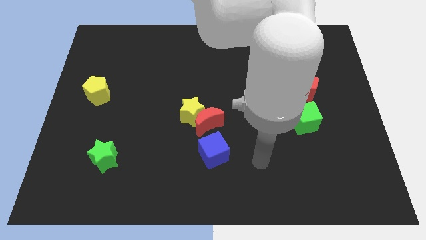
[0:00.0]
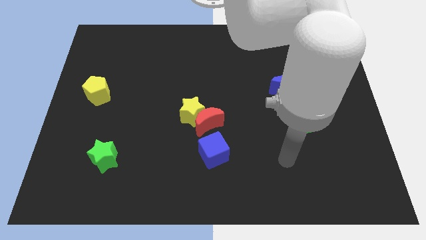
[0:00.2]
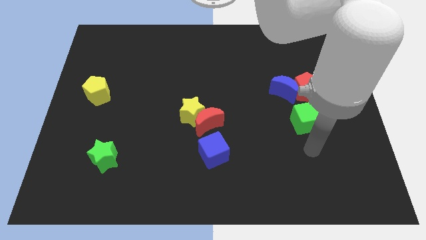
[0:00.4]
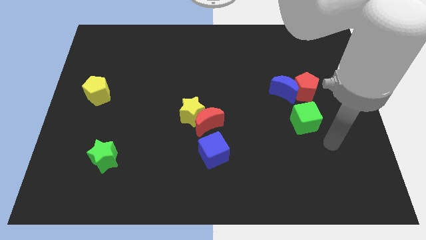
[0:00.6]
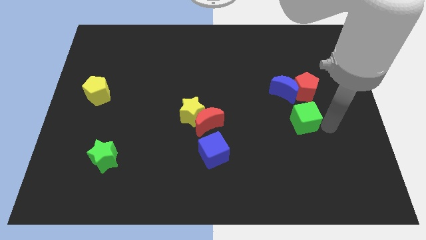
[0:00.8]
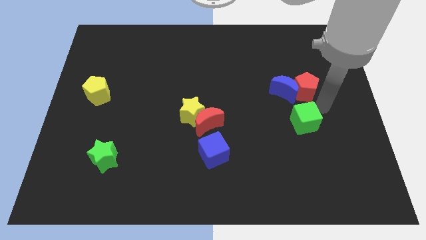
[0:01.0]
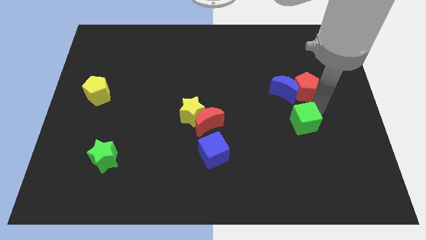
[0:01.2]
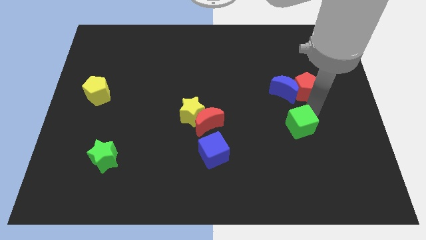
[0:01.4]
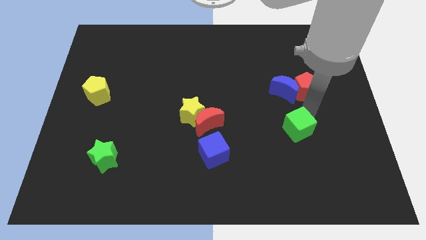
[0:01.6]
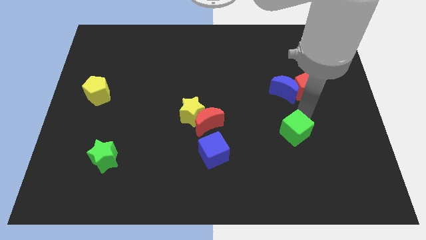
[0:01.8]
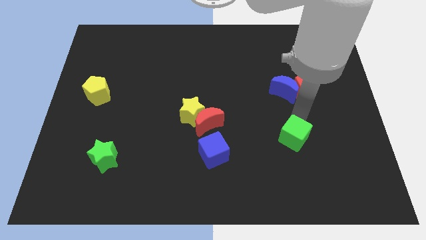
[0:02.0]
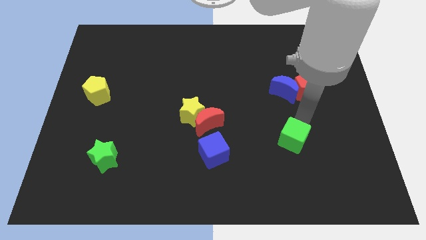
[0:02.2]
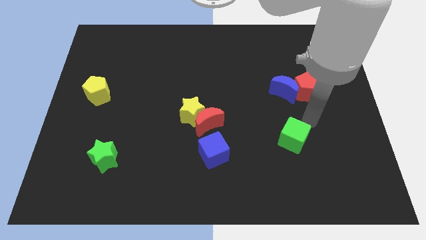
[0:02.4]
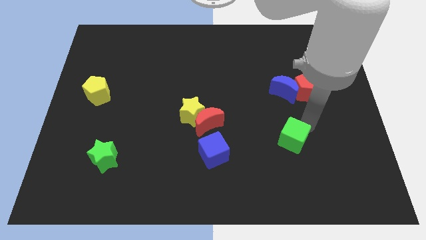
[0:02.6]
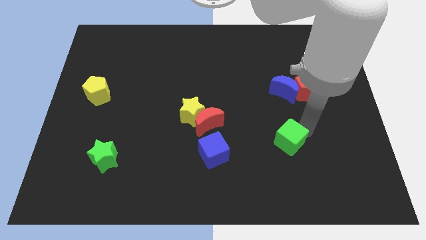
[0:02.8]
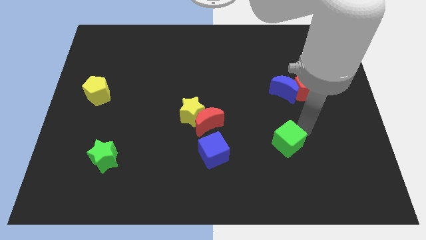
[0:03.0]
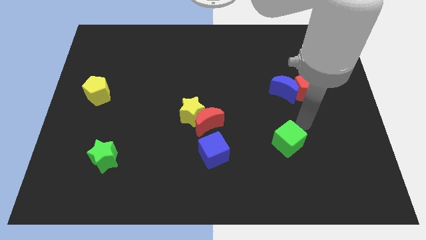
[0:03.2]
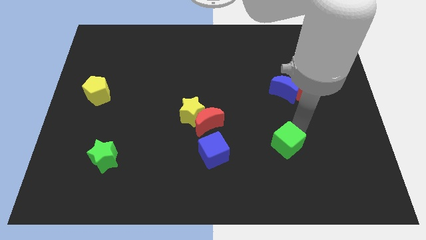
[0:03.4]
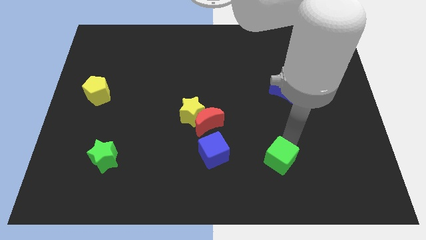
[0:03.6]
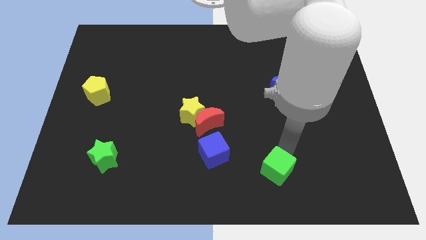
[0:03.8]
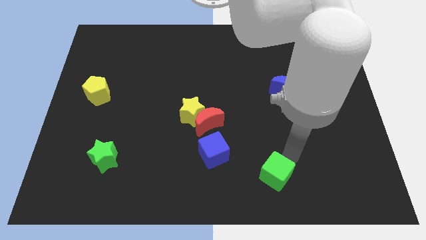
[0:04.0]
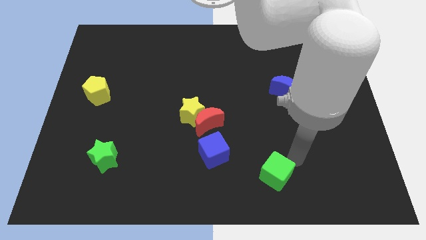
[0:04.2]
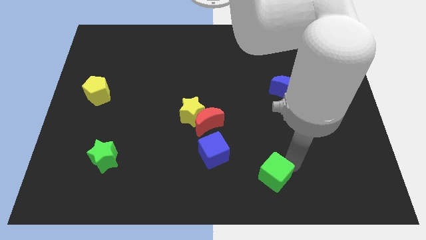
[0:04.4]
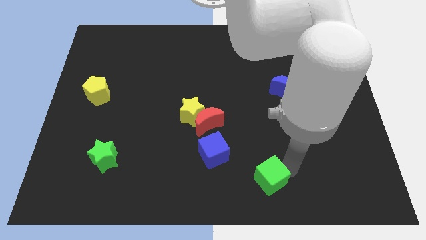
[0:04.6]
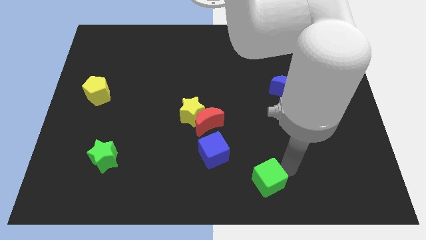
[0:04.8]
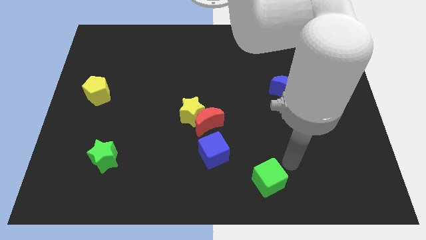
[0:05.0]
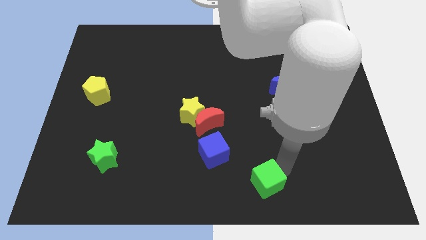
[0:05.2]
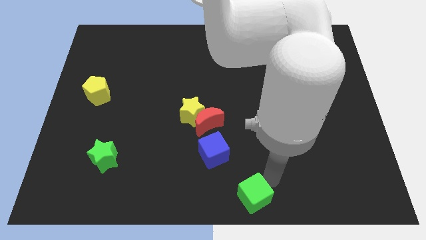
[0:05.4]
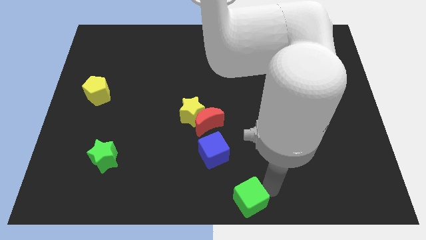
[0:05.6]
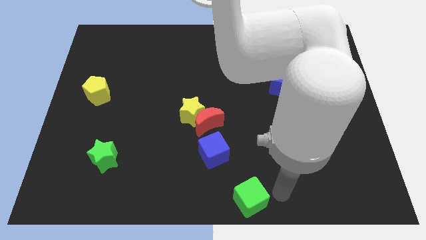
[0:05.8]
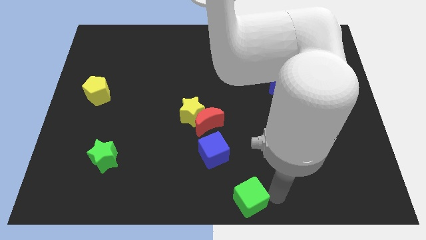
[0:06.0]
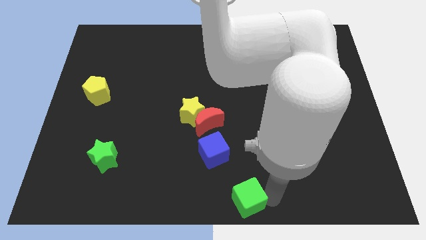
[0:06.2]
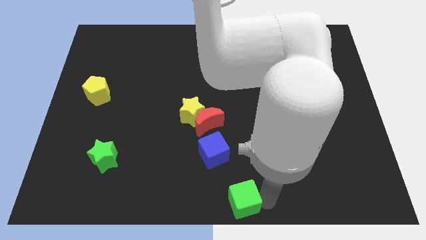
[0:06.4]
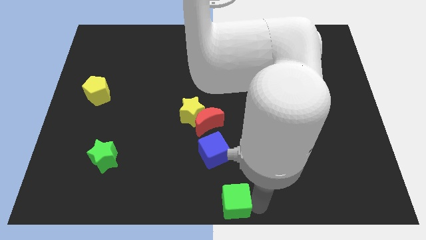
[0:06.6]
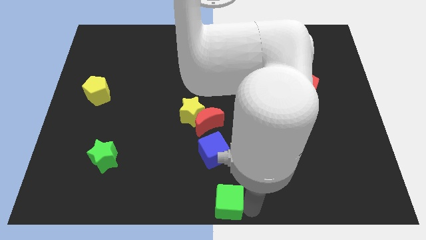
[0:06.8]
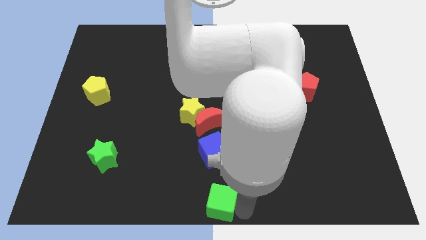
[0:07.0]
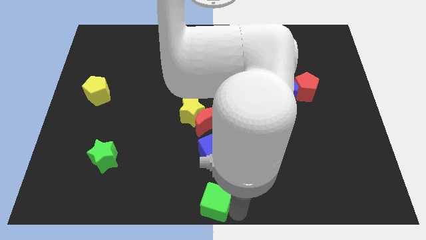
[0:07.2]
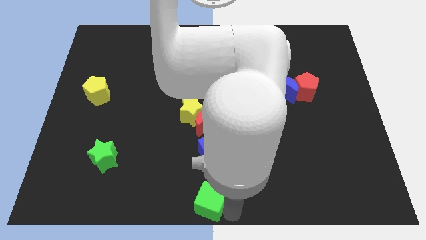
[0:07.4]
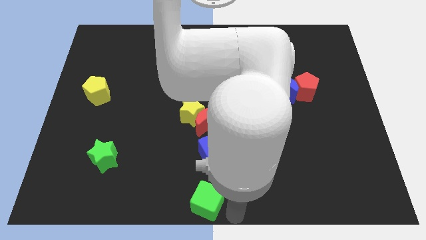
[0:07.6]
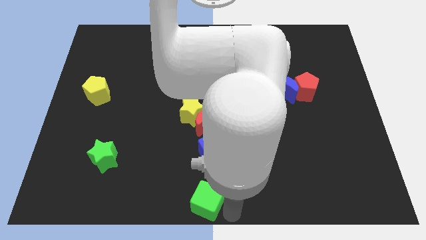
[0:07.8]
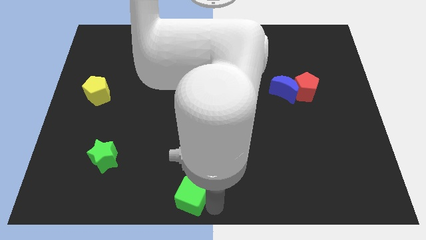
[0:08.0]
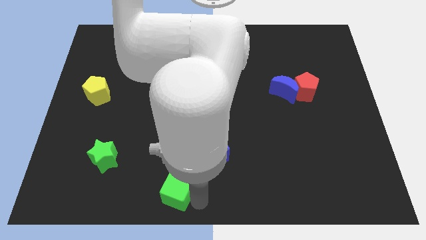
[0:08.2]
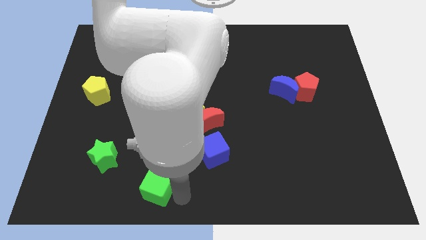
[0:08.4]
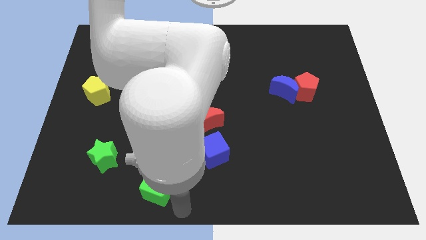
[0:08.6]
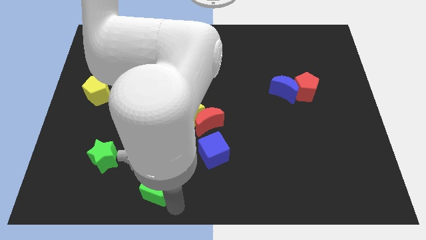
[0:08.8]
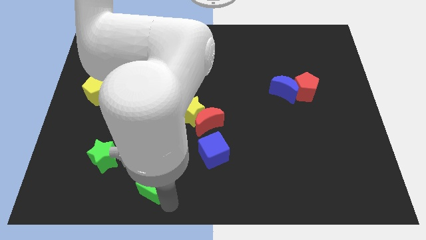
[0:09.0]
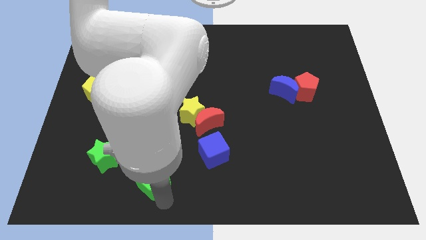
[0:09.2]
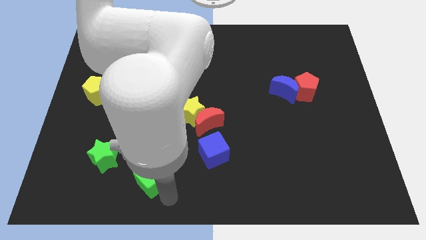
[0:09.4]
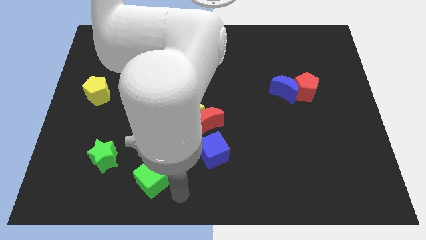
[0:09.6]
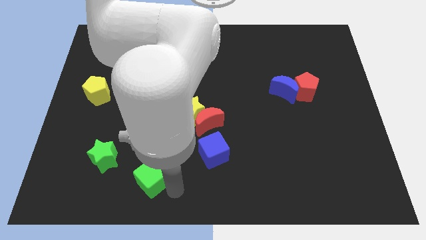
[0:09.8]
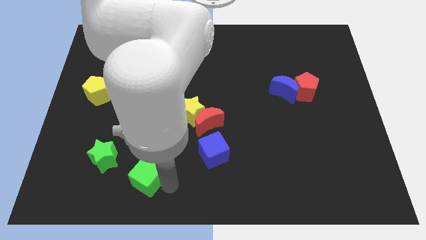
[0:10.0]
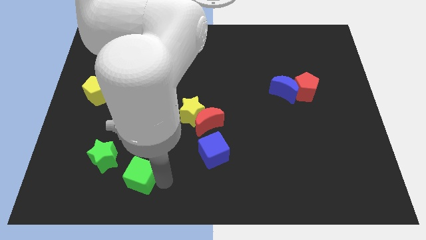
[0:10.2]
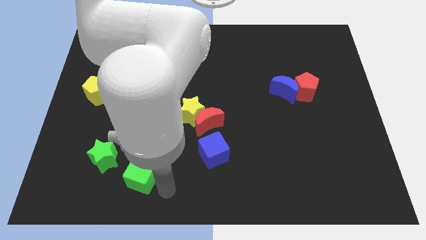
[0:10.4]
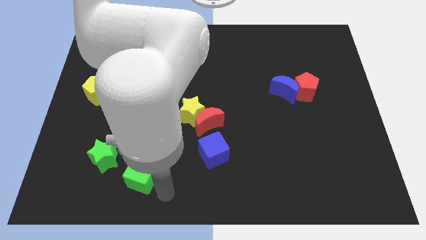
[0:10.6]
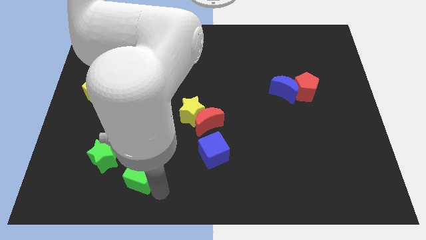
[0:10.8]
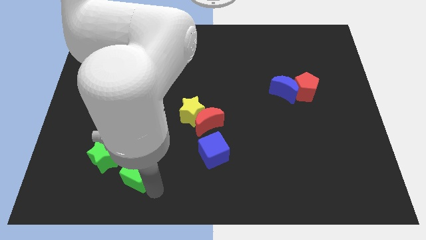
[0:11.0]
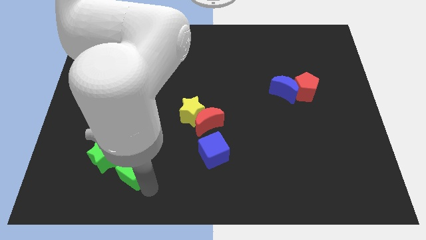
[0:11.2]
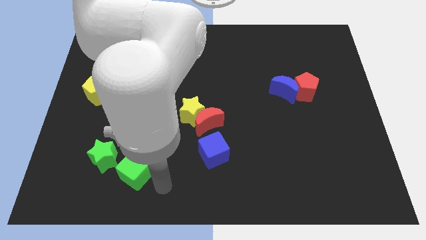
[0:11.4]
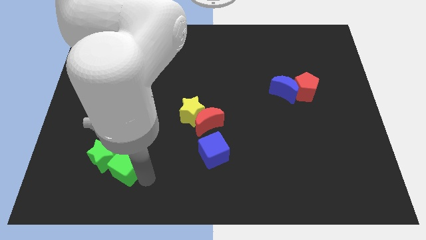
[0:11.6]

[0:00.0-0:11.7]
slide the green cube to the green star

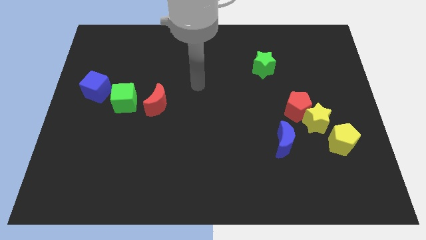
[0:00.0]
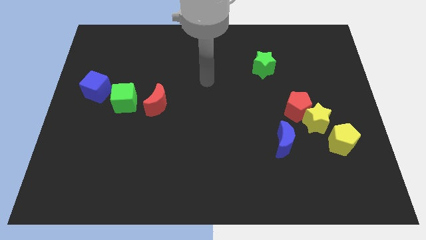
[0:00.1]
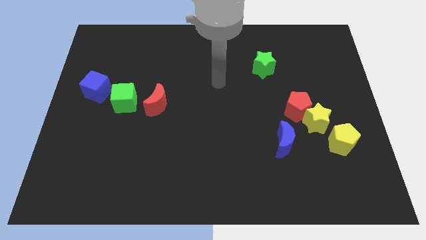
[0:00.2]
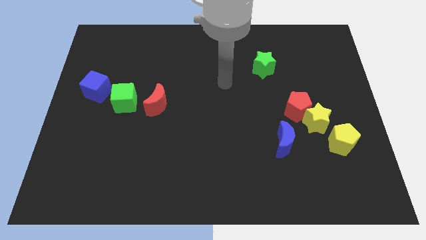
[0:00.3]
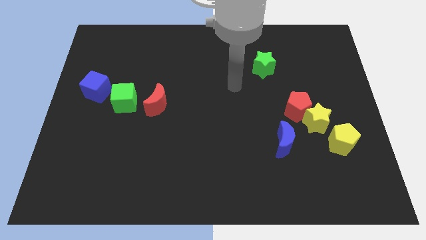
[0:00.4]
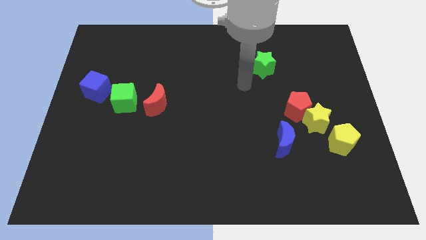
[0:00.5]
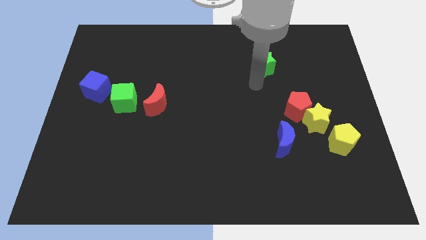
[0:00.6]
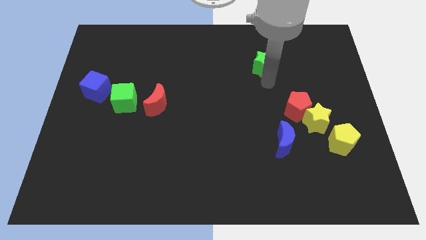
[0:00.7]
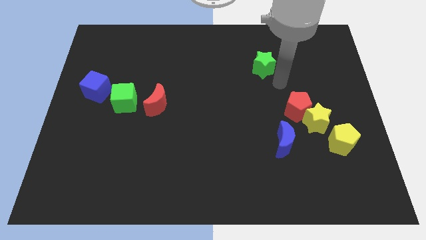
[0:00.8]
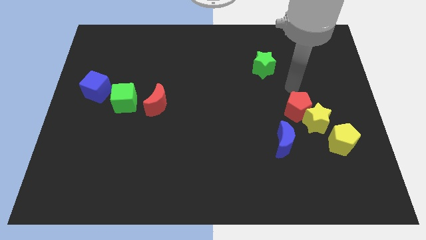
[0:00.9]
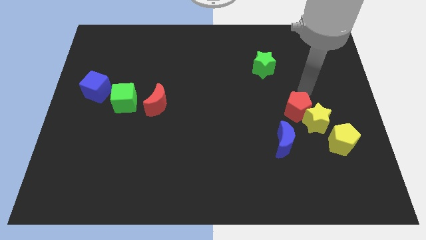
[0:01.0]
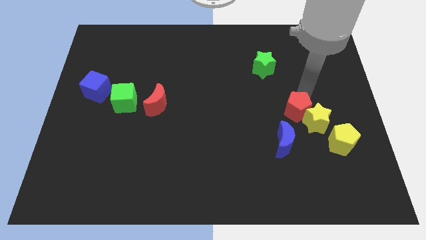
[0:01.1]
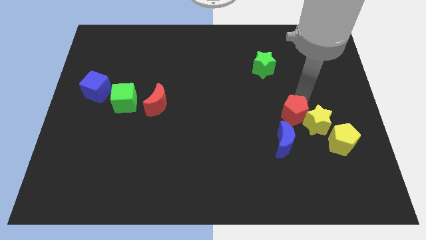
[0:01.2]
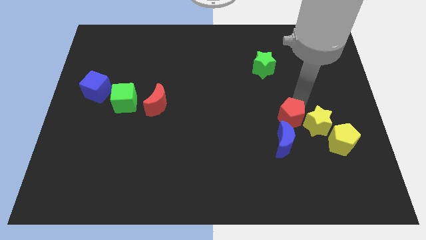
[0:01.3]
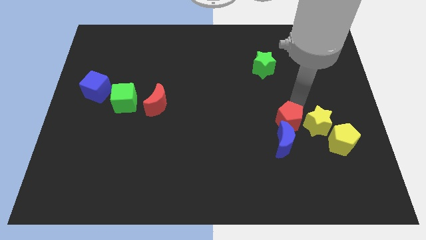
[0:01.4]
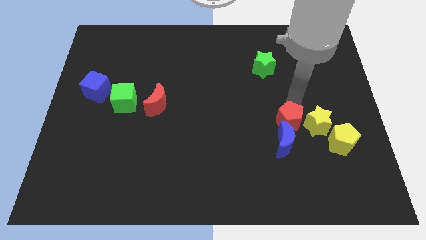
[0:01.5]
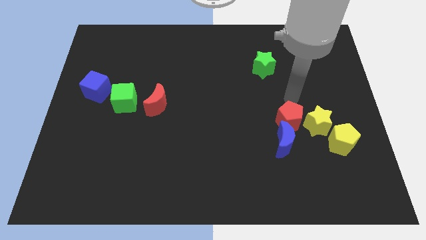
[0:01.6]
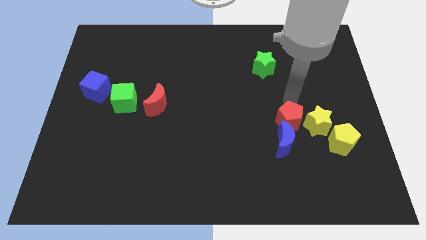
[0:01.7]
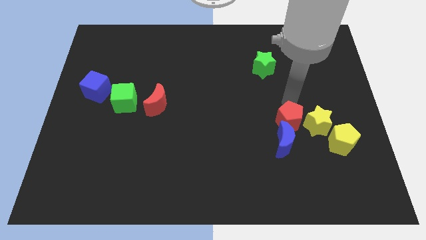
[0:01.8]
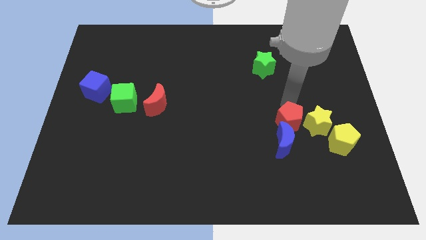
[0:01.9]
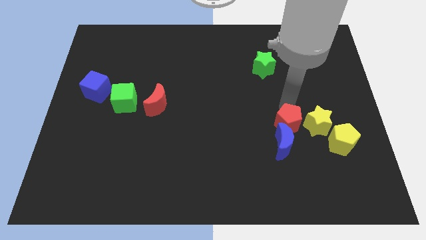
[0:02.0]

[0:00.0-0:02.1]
slide the red pentagon towards the blue moon

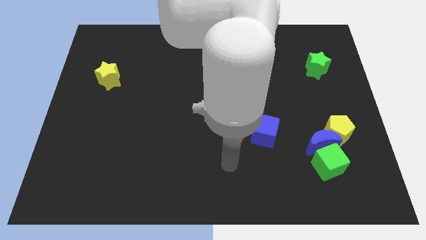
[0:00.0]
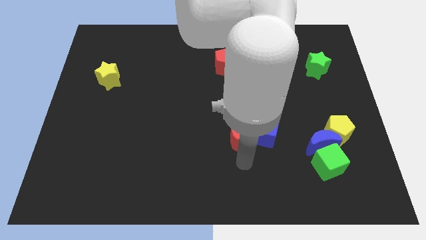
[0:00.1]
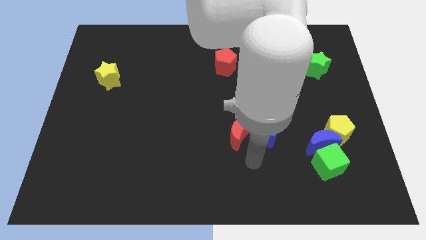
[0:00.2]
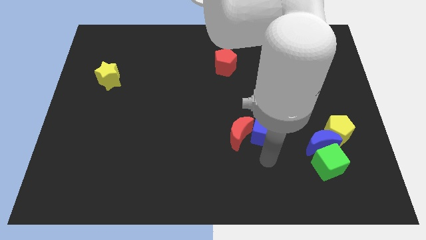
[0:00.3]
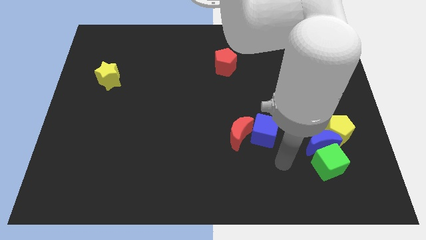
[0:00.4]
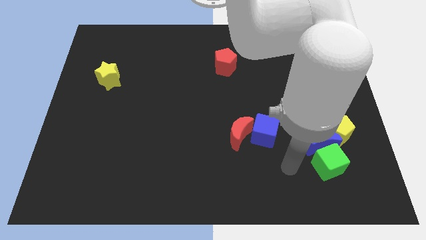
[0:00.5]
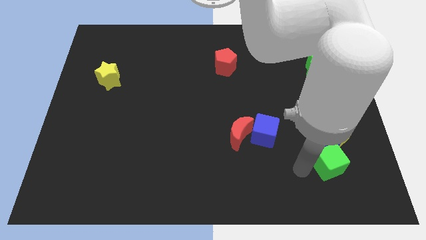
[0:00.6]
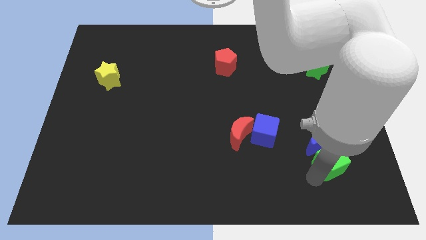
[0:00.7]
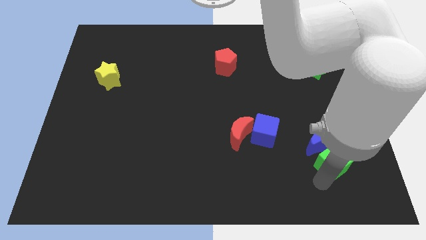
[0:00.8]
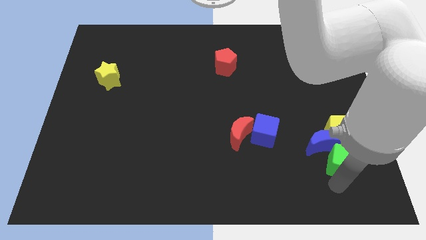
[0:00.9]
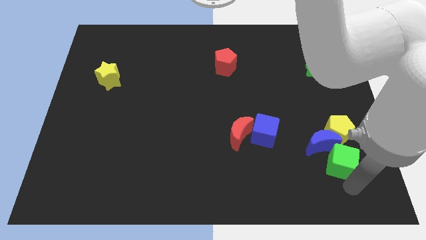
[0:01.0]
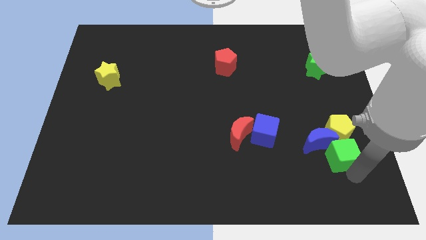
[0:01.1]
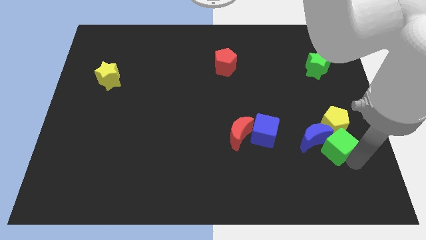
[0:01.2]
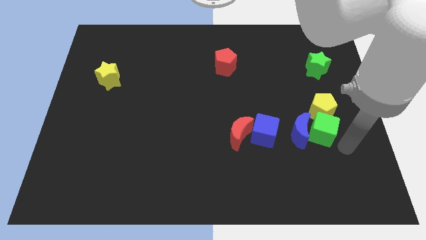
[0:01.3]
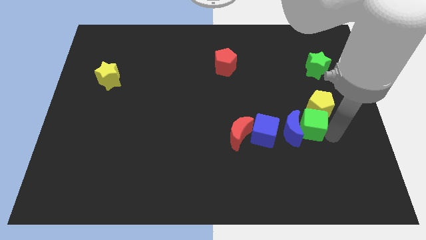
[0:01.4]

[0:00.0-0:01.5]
slide the blue moon next to the blue cube
